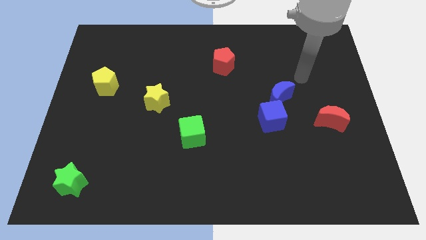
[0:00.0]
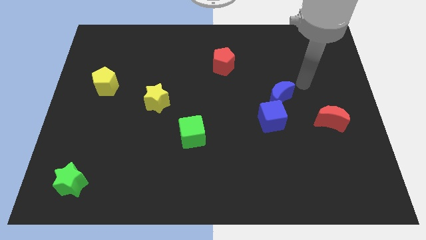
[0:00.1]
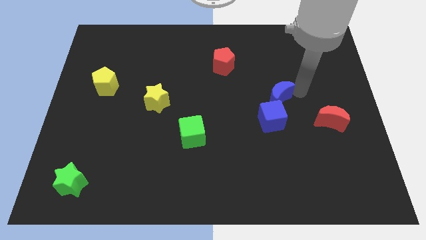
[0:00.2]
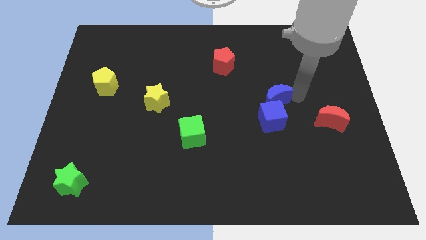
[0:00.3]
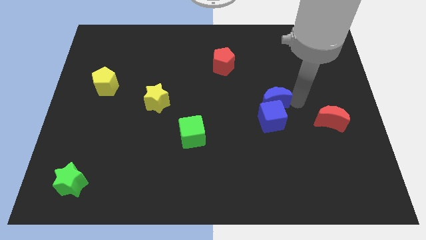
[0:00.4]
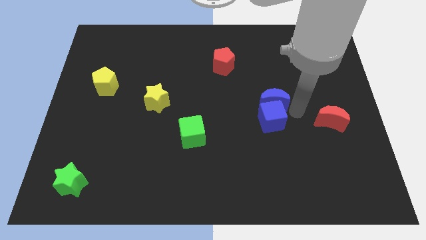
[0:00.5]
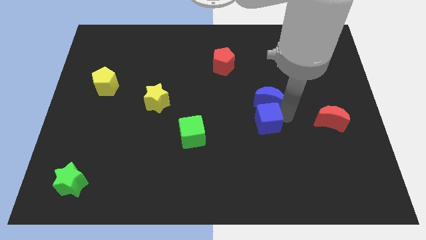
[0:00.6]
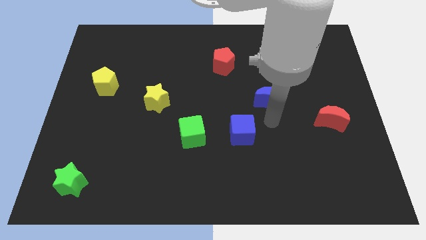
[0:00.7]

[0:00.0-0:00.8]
separate the blue moon from the blue cube

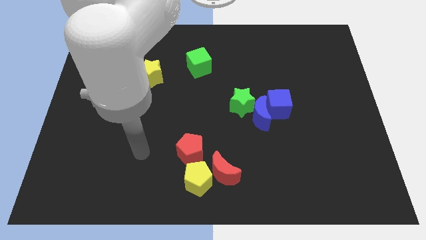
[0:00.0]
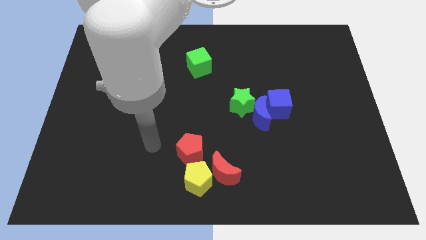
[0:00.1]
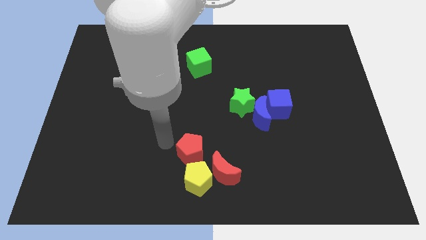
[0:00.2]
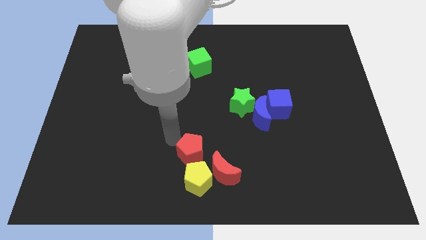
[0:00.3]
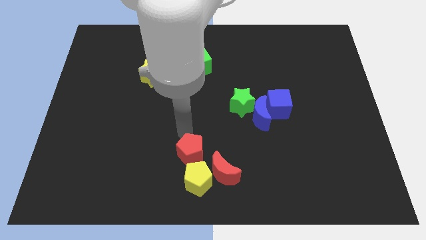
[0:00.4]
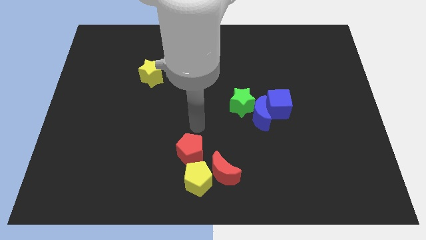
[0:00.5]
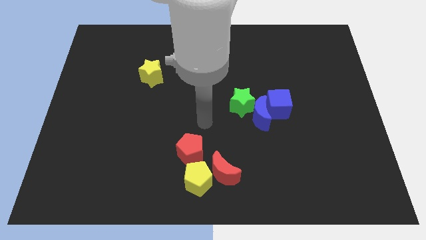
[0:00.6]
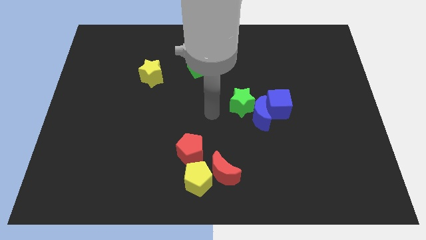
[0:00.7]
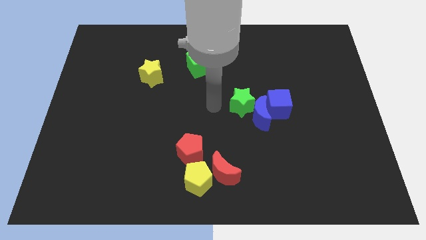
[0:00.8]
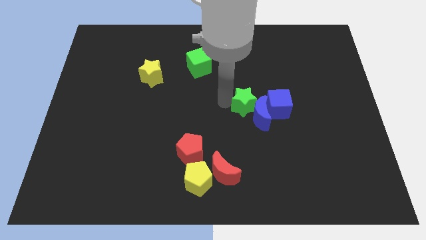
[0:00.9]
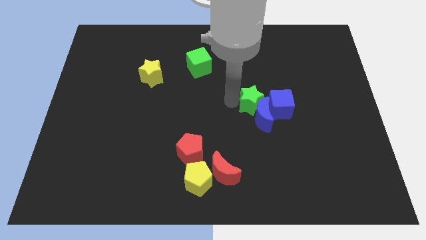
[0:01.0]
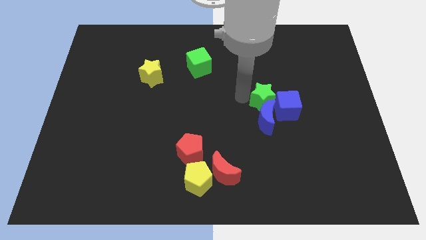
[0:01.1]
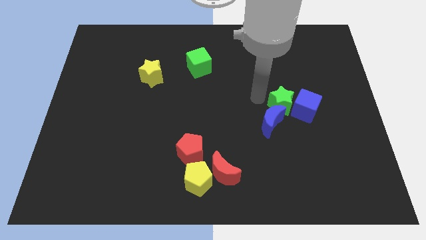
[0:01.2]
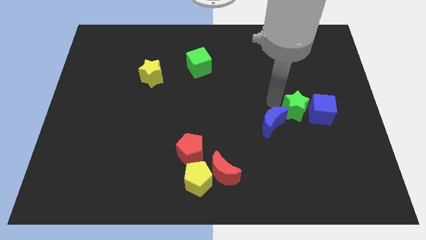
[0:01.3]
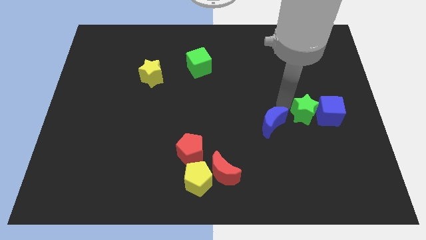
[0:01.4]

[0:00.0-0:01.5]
move the blue moon away from the blue cube and green star

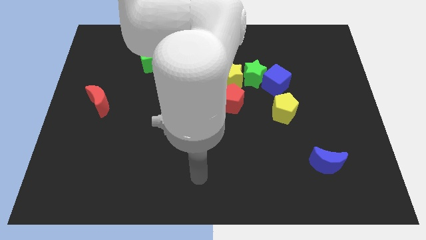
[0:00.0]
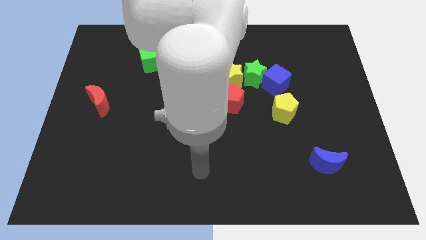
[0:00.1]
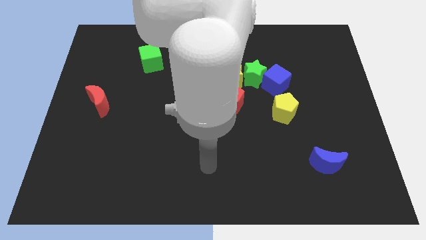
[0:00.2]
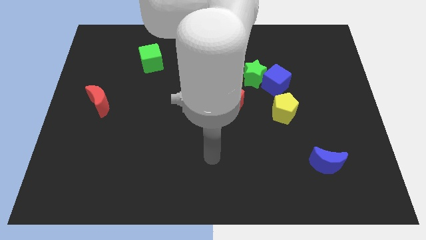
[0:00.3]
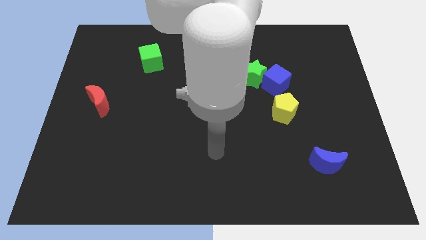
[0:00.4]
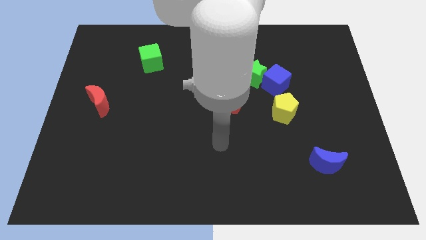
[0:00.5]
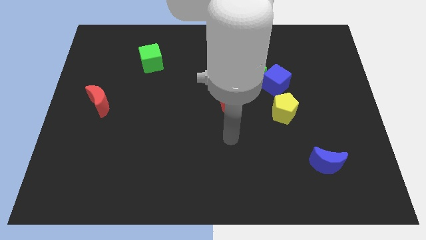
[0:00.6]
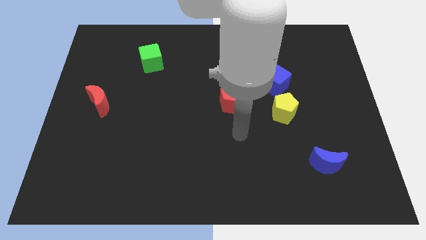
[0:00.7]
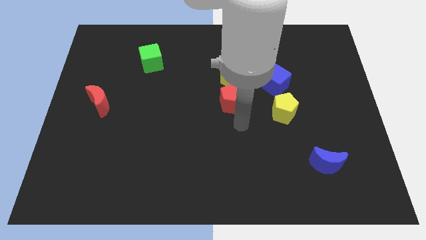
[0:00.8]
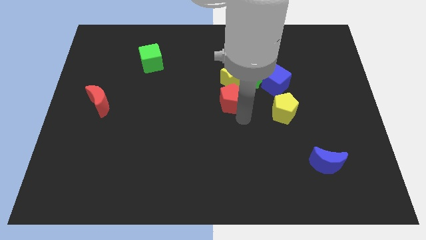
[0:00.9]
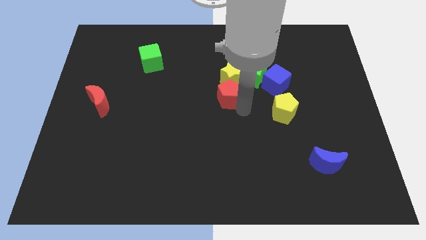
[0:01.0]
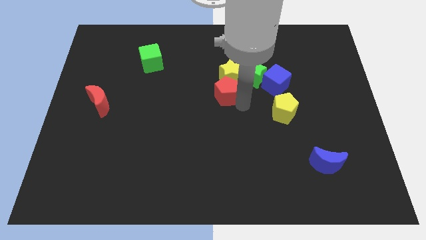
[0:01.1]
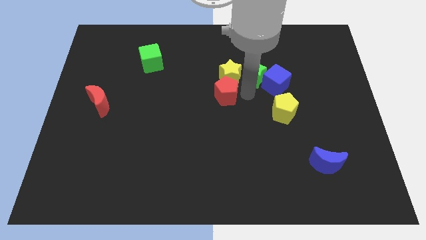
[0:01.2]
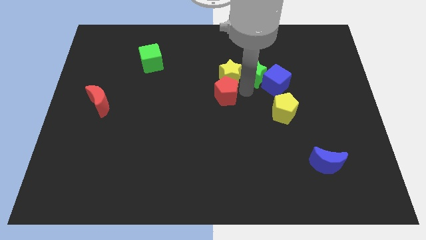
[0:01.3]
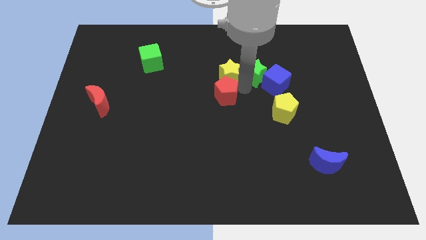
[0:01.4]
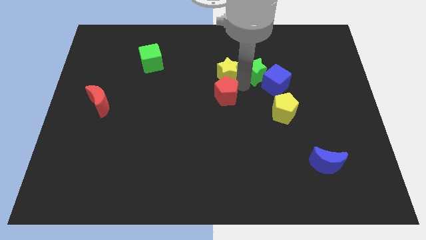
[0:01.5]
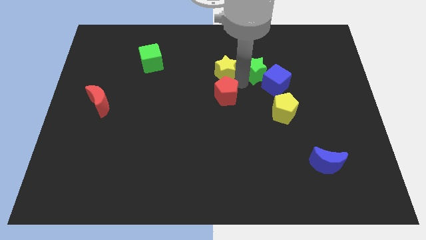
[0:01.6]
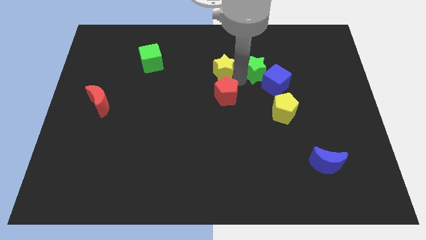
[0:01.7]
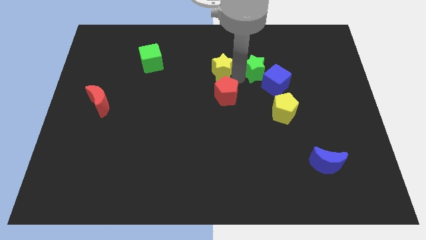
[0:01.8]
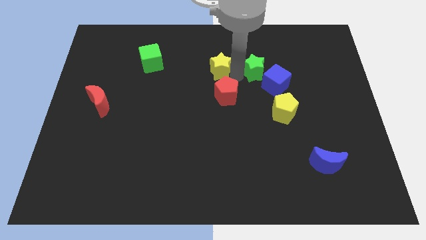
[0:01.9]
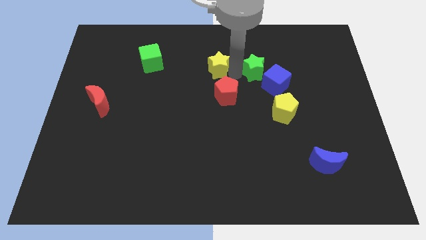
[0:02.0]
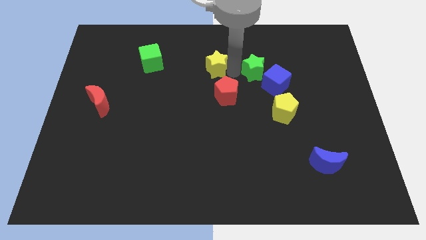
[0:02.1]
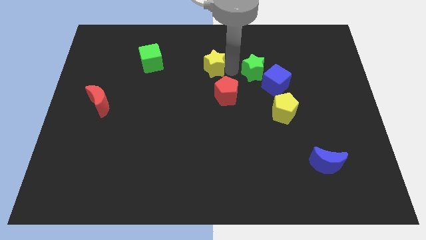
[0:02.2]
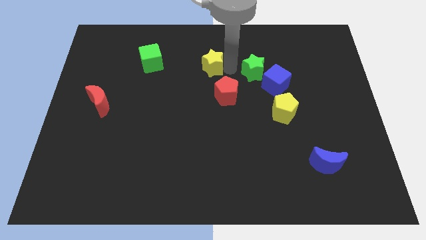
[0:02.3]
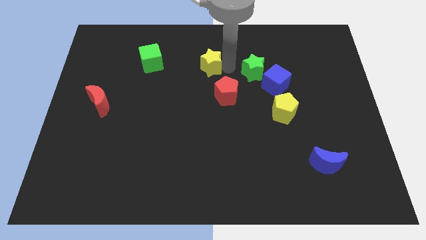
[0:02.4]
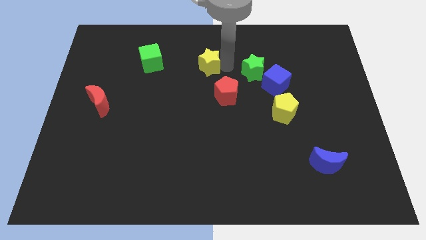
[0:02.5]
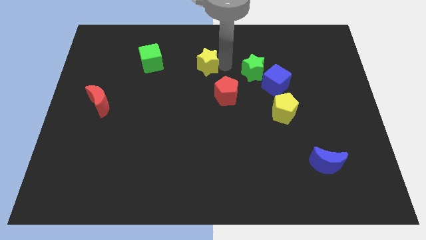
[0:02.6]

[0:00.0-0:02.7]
separate the yellow star from the green star and red pentagon

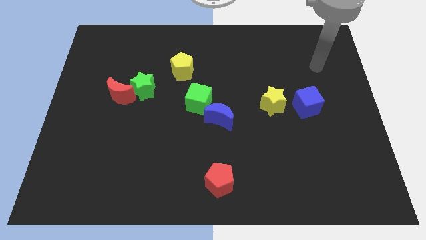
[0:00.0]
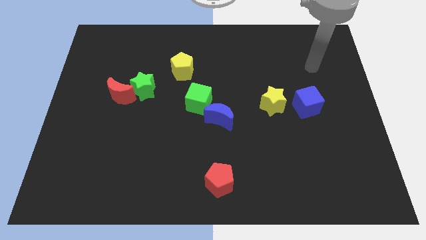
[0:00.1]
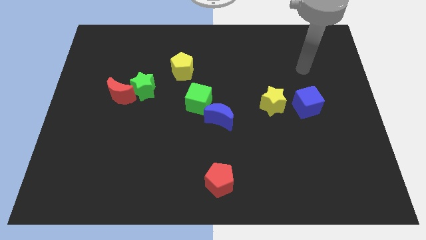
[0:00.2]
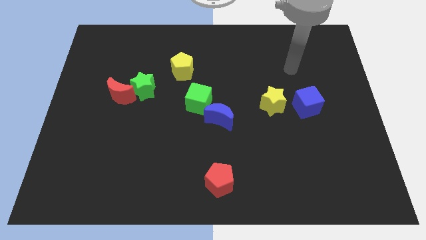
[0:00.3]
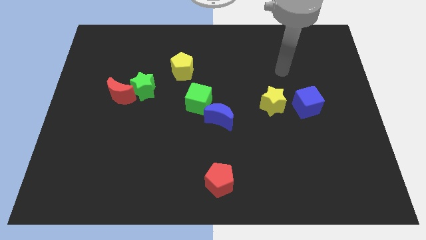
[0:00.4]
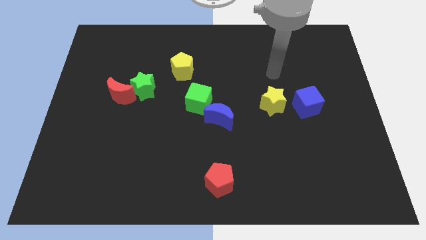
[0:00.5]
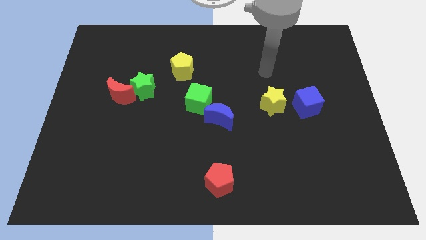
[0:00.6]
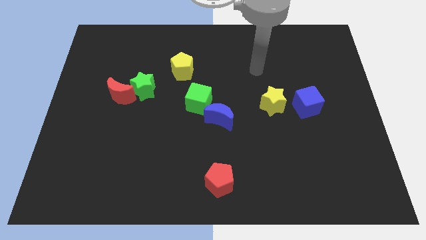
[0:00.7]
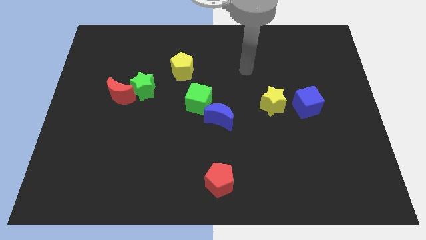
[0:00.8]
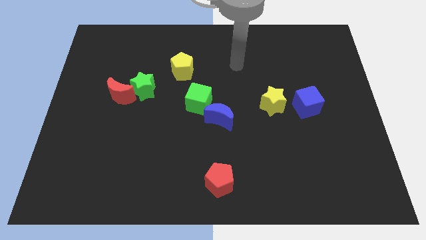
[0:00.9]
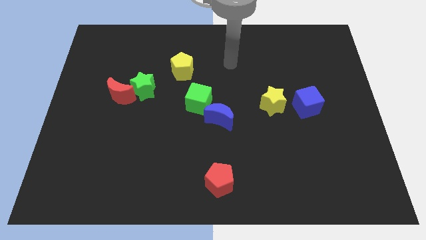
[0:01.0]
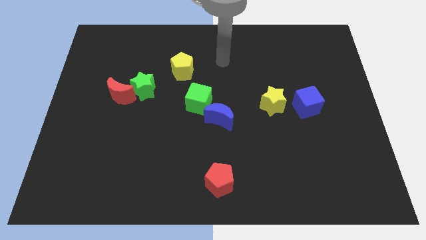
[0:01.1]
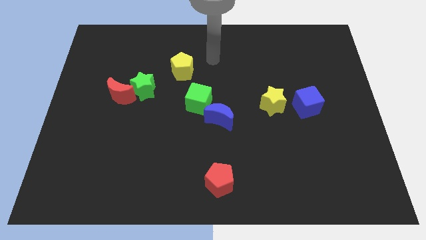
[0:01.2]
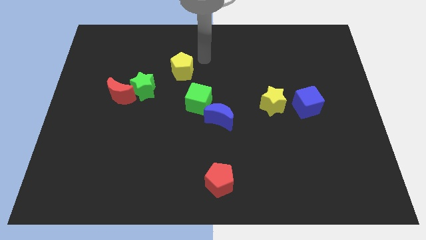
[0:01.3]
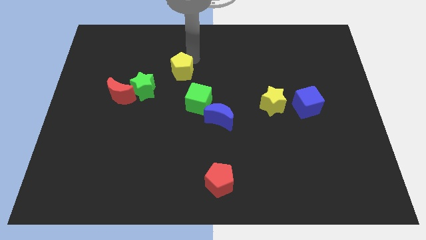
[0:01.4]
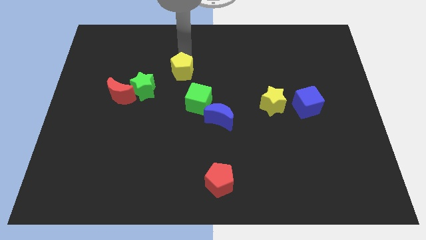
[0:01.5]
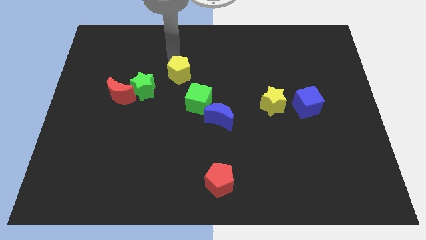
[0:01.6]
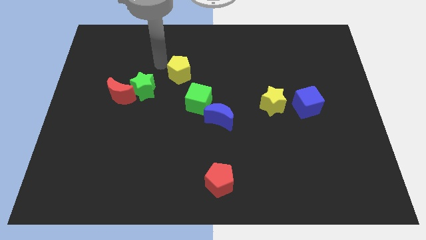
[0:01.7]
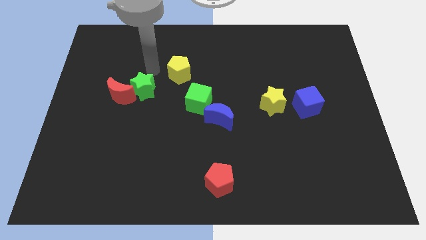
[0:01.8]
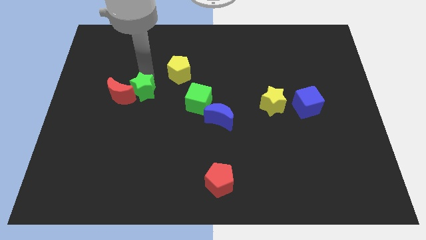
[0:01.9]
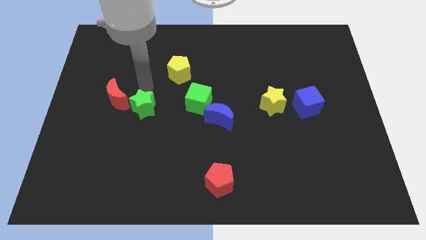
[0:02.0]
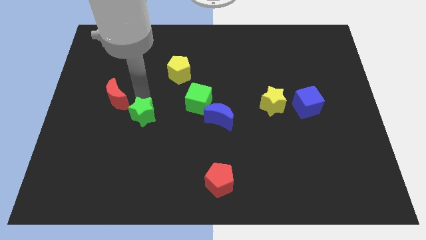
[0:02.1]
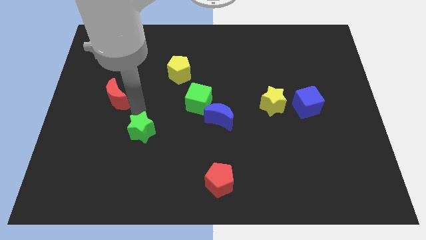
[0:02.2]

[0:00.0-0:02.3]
move the red moon away from the green star

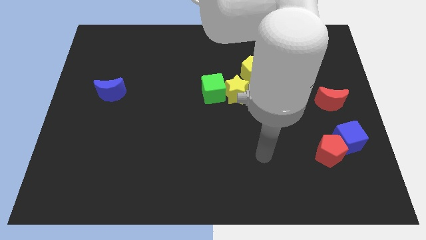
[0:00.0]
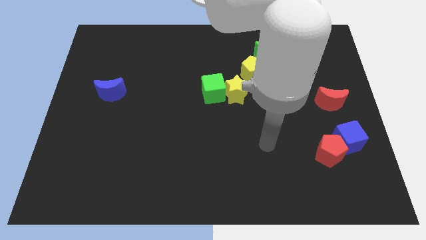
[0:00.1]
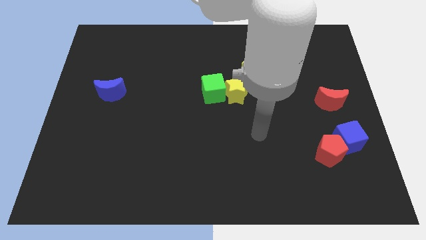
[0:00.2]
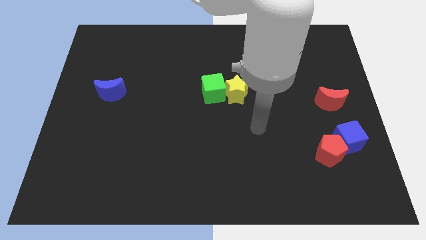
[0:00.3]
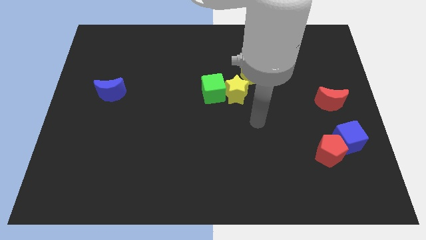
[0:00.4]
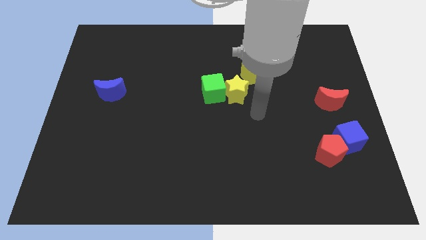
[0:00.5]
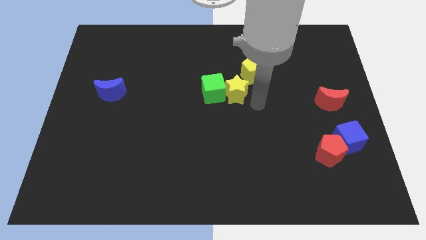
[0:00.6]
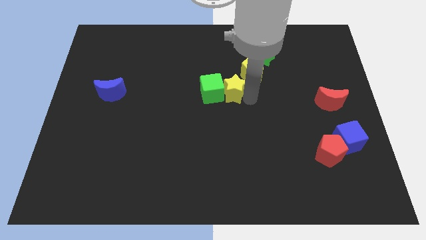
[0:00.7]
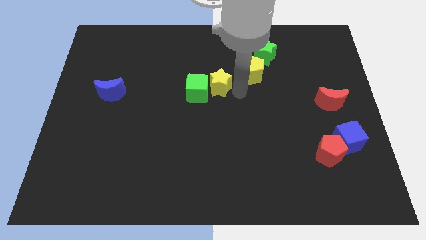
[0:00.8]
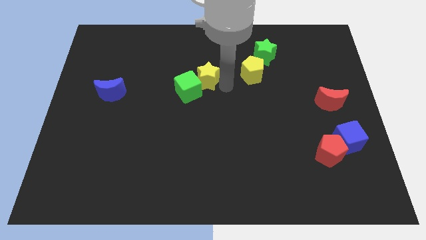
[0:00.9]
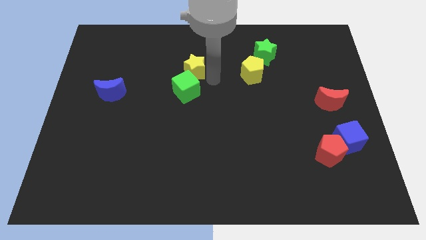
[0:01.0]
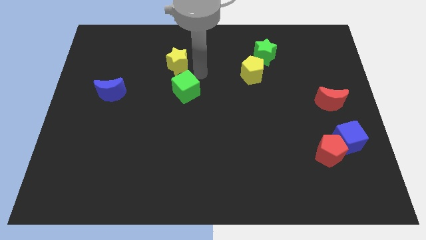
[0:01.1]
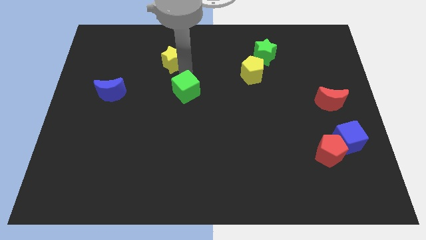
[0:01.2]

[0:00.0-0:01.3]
separate the green cube from the yellow star

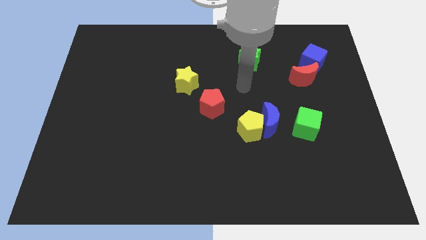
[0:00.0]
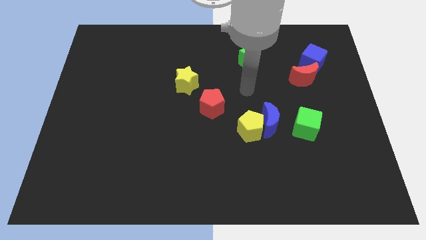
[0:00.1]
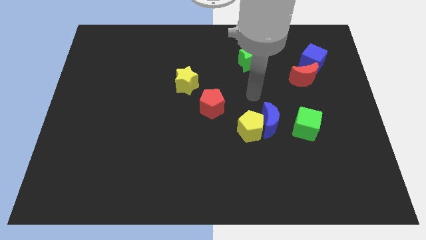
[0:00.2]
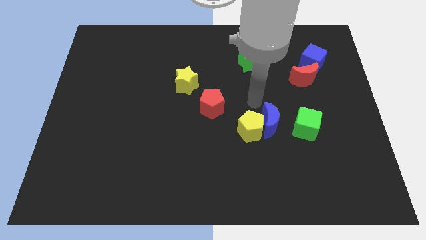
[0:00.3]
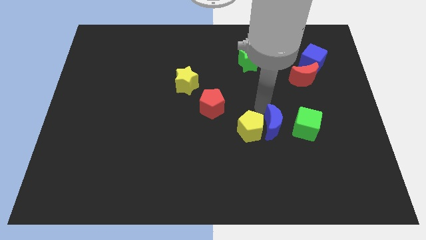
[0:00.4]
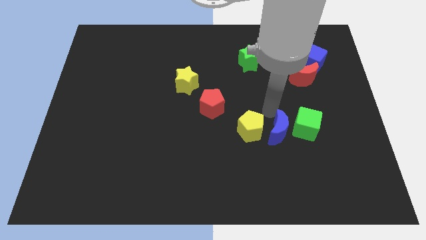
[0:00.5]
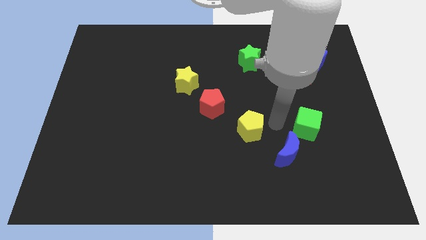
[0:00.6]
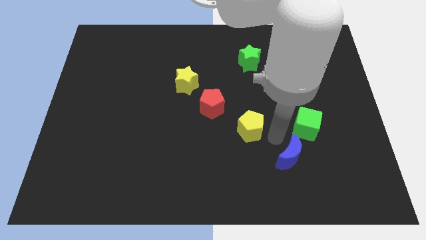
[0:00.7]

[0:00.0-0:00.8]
separate the yellow pentagon from the blue moon
